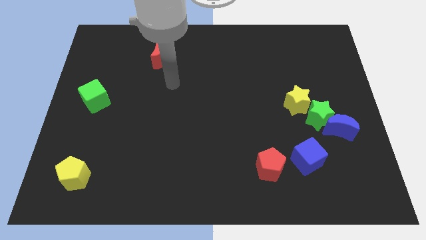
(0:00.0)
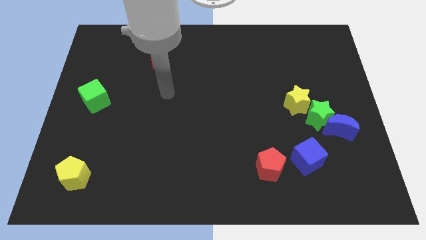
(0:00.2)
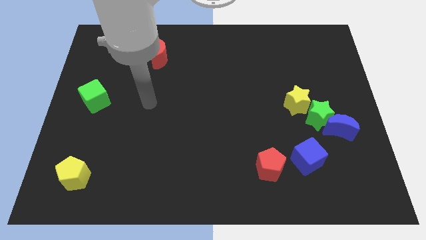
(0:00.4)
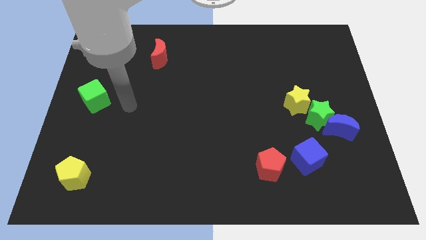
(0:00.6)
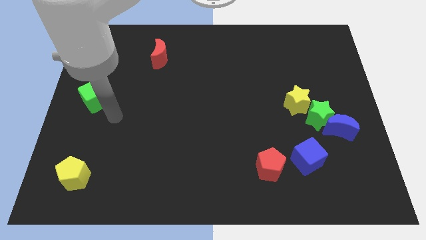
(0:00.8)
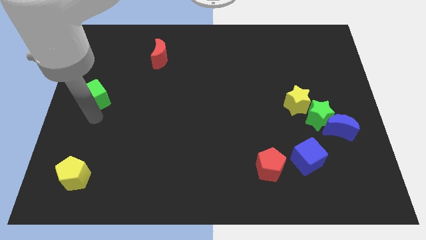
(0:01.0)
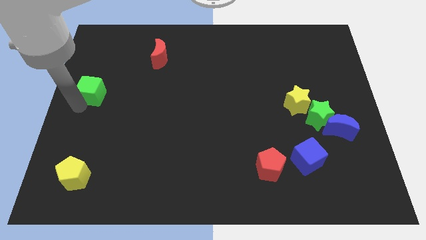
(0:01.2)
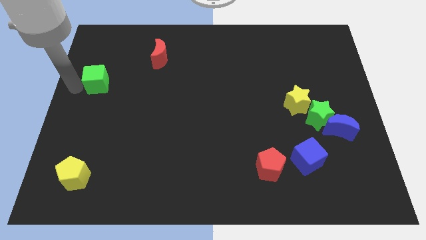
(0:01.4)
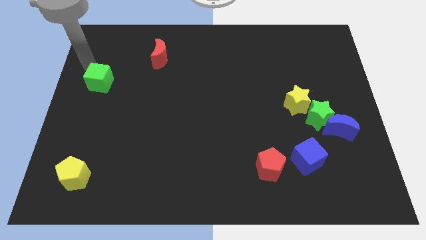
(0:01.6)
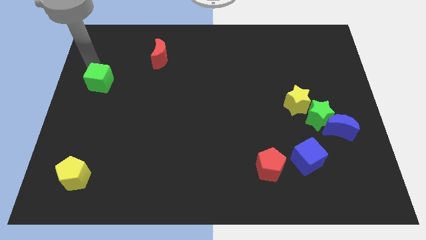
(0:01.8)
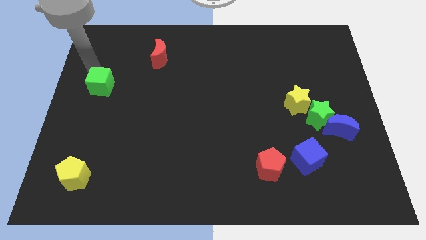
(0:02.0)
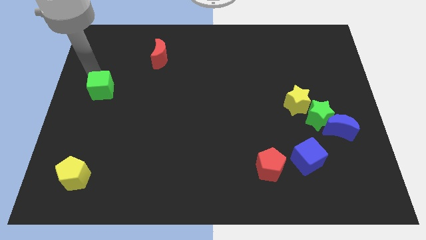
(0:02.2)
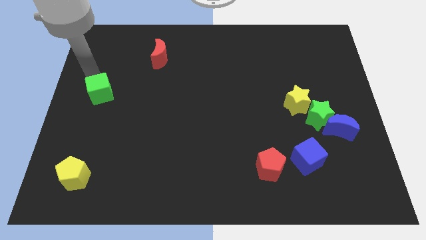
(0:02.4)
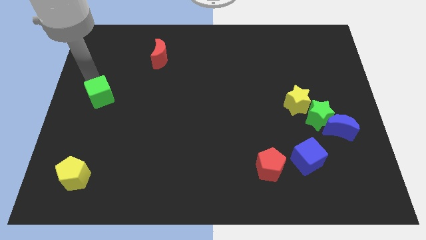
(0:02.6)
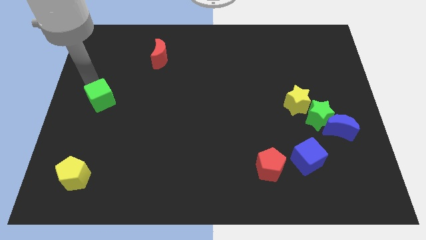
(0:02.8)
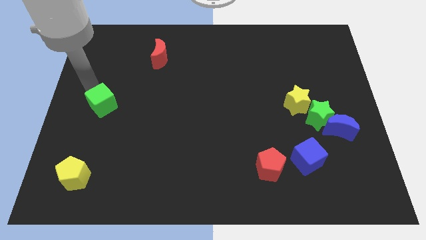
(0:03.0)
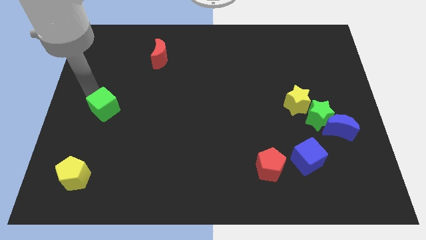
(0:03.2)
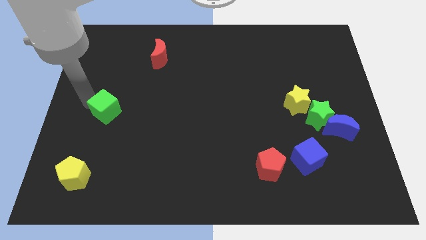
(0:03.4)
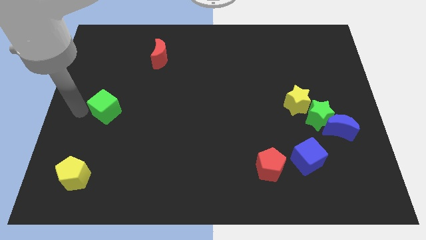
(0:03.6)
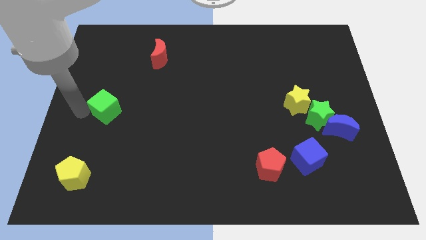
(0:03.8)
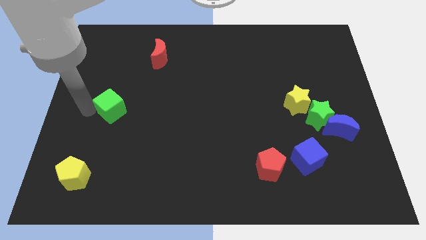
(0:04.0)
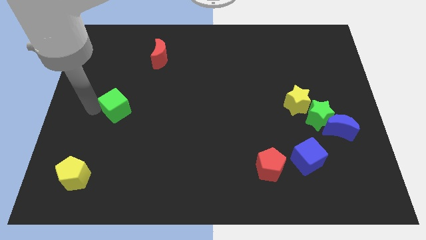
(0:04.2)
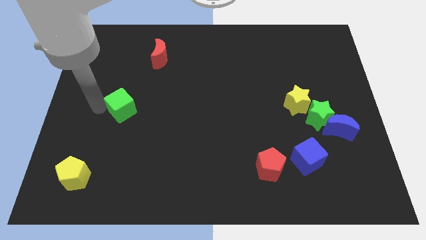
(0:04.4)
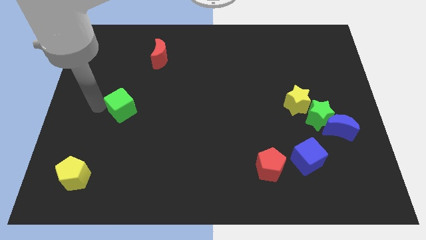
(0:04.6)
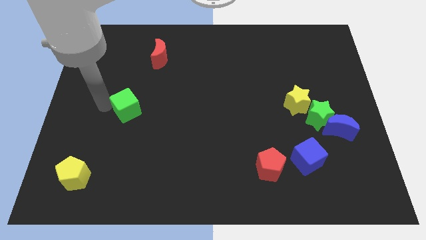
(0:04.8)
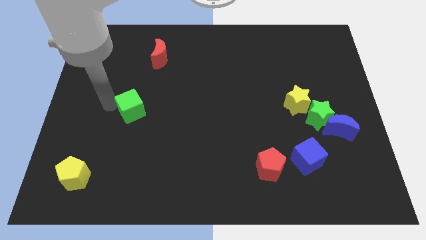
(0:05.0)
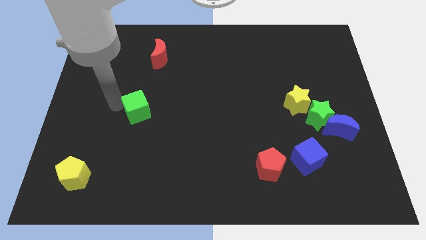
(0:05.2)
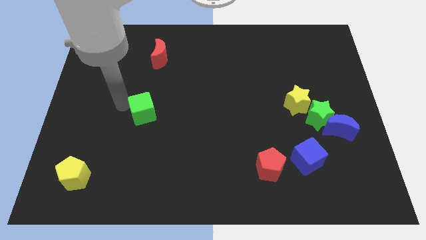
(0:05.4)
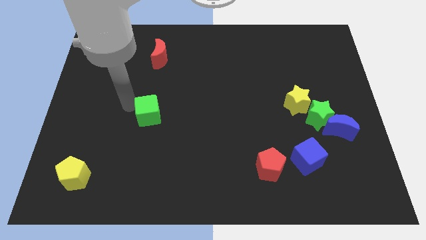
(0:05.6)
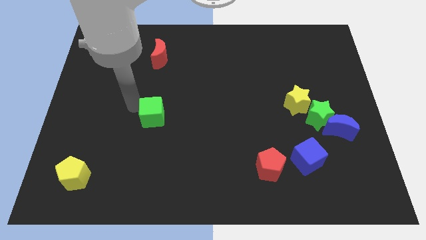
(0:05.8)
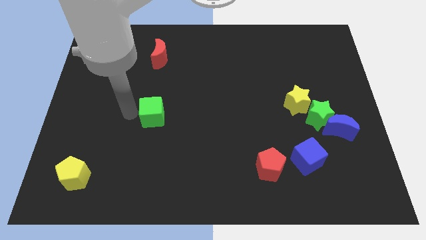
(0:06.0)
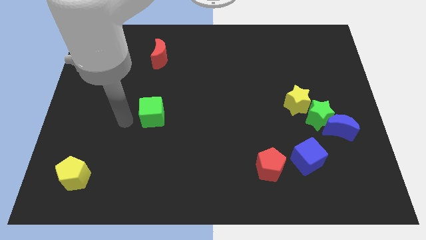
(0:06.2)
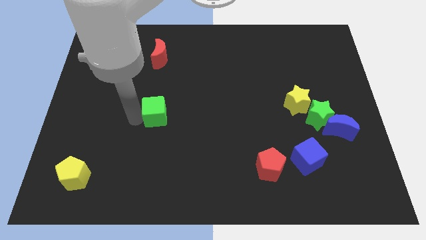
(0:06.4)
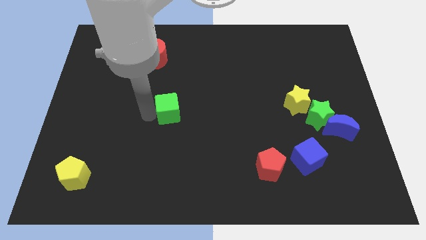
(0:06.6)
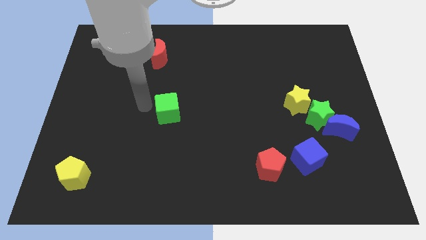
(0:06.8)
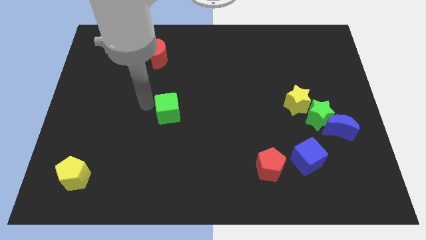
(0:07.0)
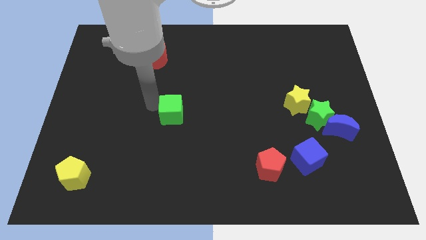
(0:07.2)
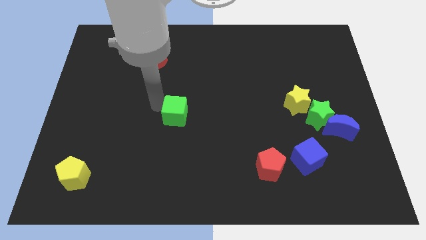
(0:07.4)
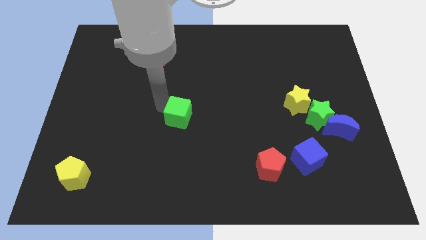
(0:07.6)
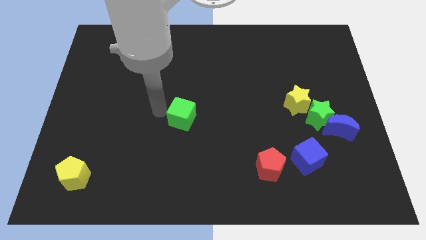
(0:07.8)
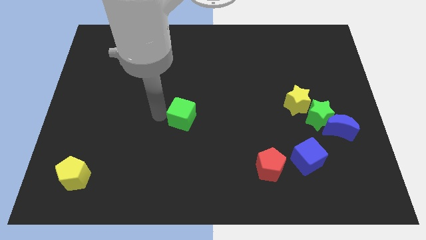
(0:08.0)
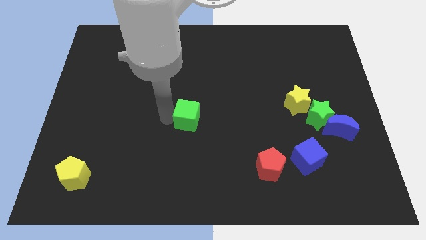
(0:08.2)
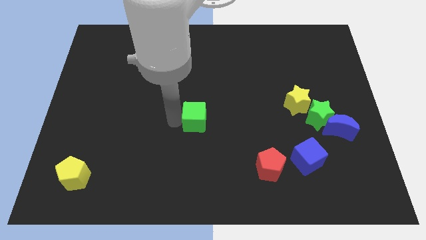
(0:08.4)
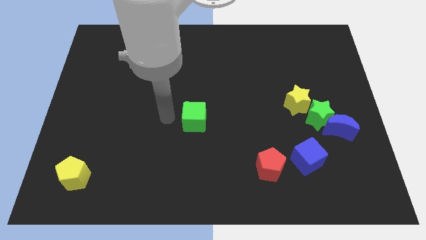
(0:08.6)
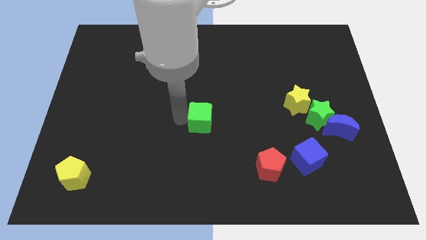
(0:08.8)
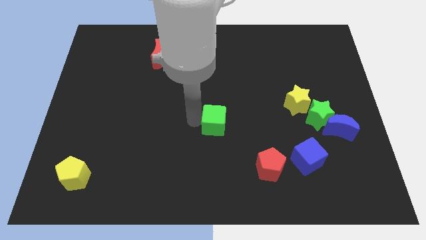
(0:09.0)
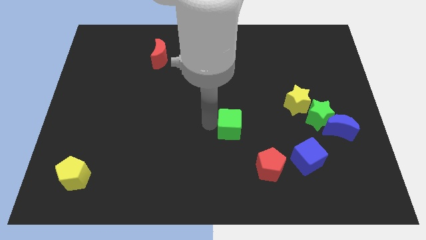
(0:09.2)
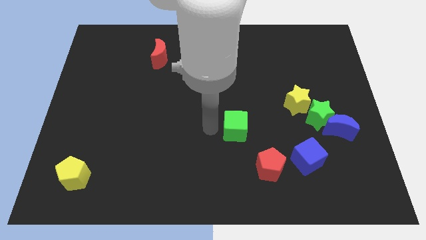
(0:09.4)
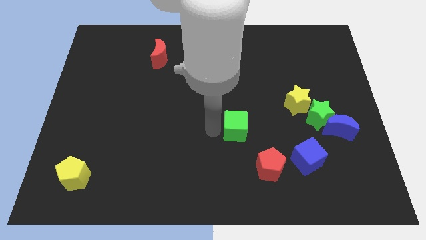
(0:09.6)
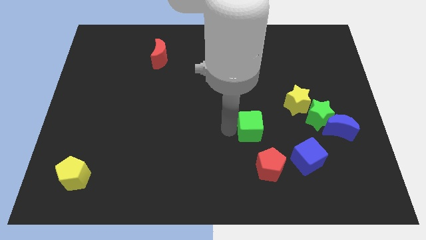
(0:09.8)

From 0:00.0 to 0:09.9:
put the green cube to the top side of the red pentagon

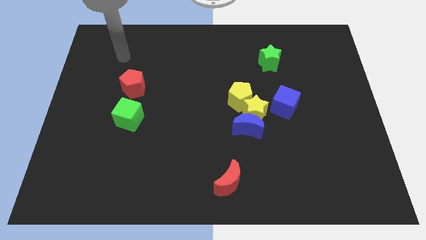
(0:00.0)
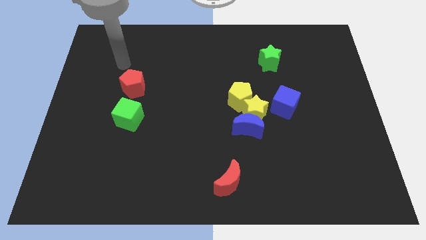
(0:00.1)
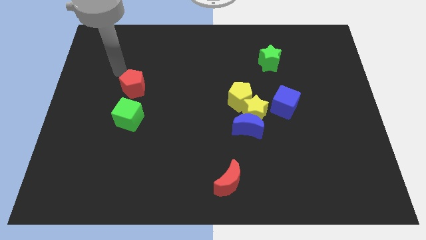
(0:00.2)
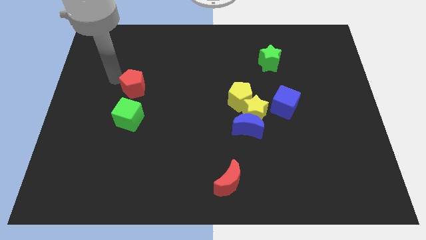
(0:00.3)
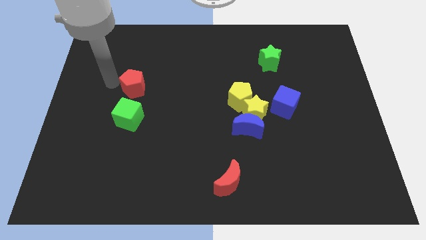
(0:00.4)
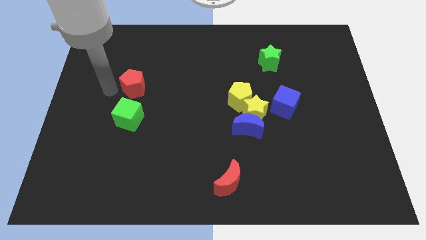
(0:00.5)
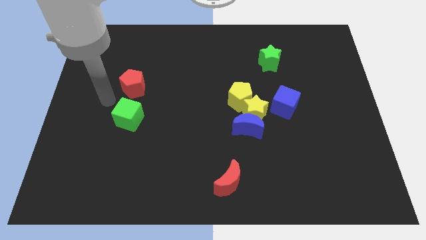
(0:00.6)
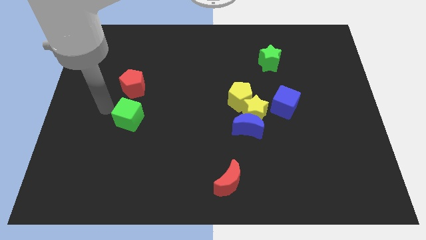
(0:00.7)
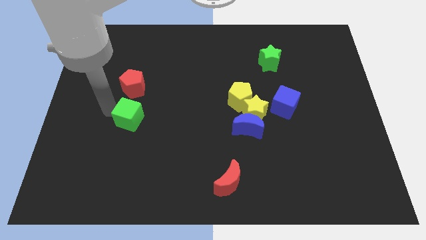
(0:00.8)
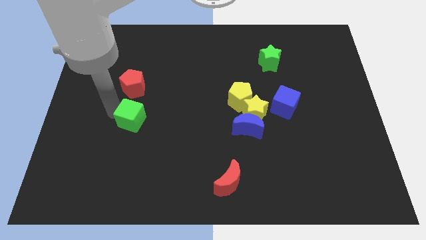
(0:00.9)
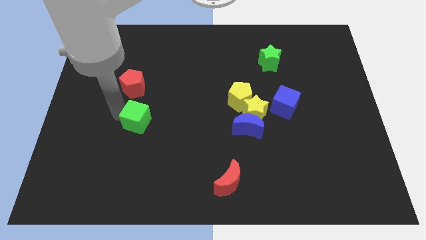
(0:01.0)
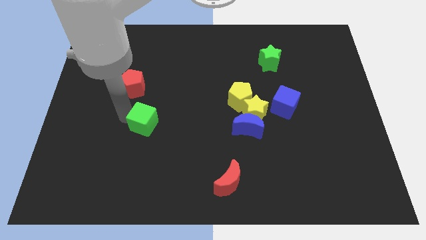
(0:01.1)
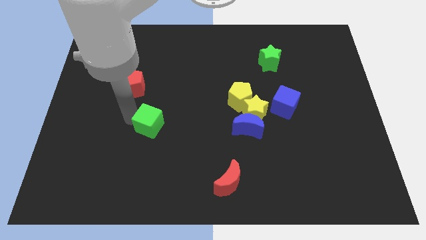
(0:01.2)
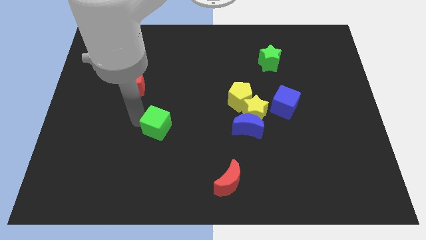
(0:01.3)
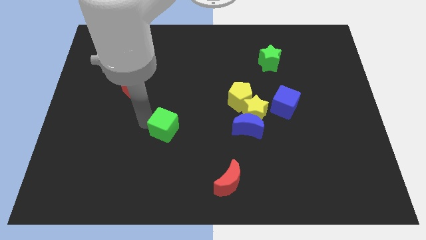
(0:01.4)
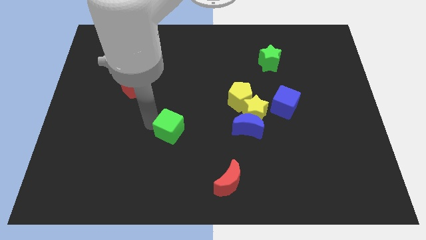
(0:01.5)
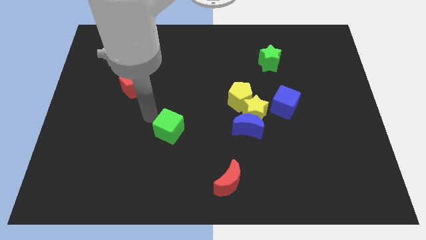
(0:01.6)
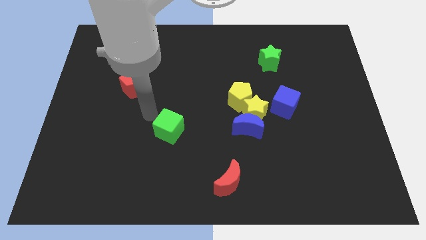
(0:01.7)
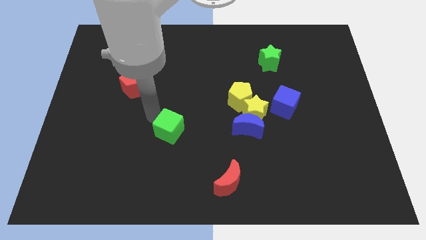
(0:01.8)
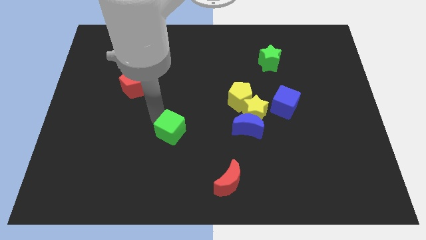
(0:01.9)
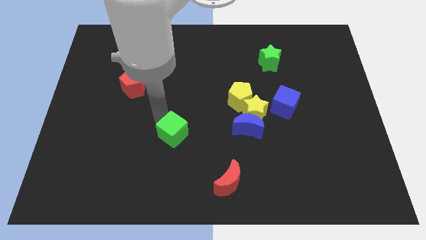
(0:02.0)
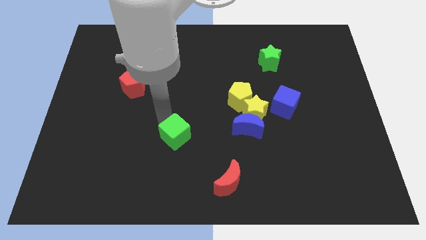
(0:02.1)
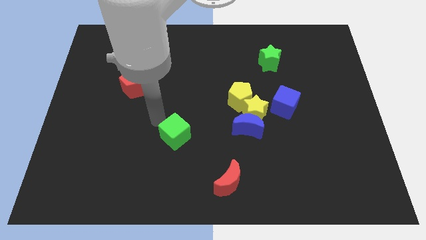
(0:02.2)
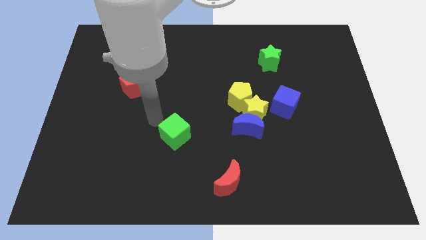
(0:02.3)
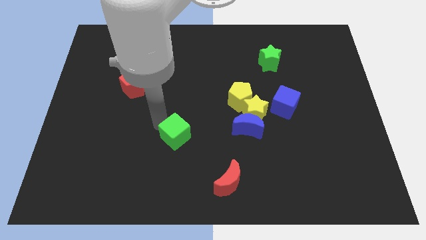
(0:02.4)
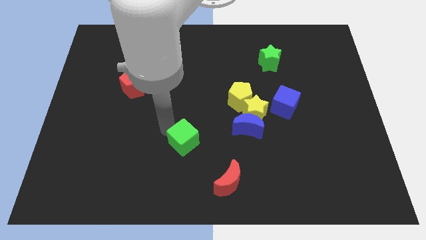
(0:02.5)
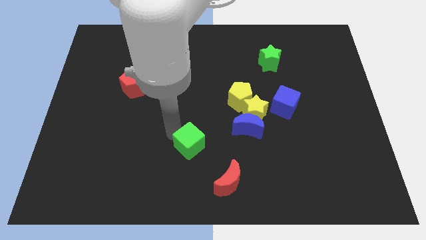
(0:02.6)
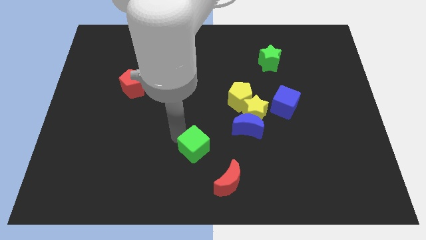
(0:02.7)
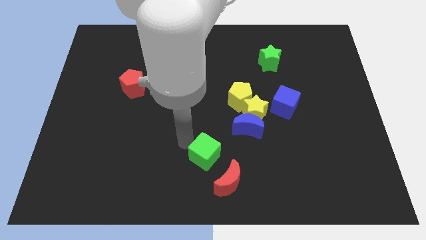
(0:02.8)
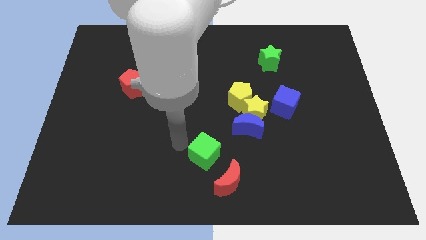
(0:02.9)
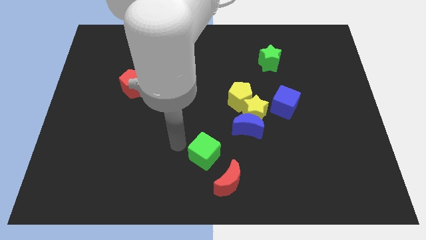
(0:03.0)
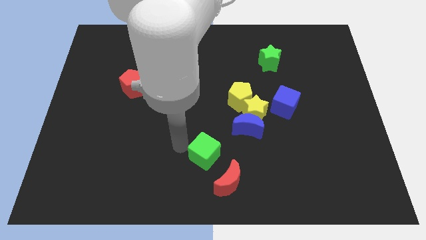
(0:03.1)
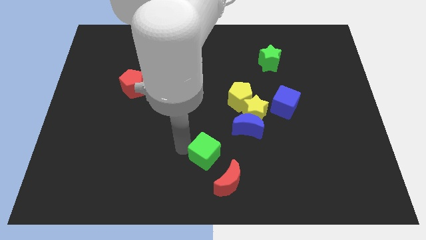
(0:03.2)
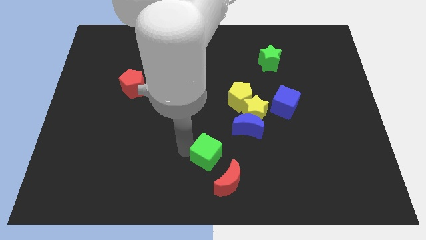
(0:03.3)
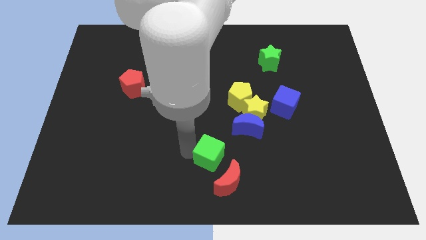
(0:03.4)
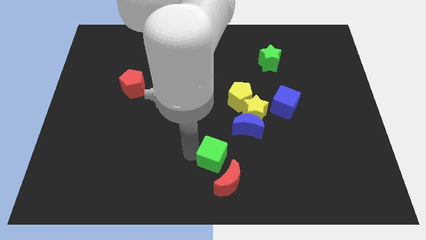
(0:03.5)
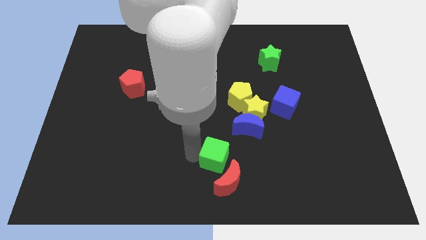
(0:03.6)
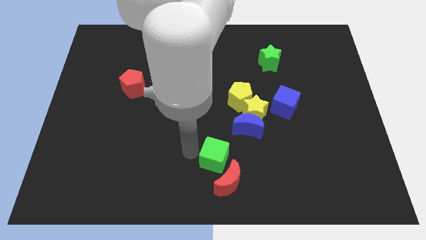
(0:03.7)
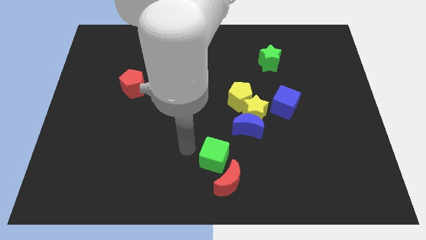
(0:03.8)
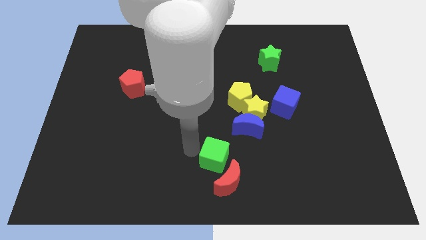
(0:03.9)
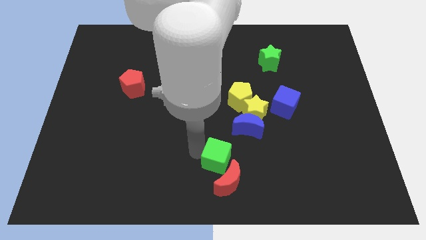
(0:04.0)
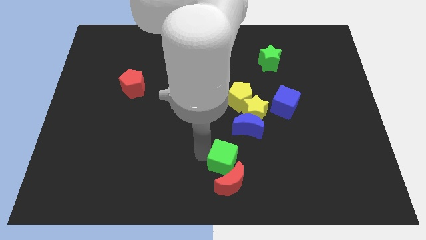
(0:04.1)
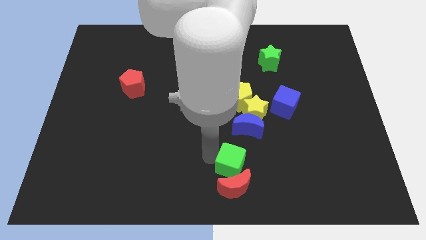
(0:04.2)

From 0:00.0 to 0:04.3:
move the green cube to the bottom of the blue moon
